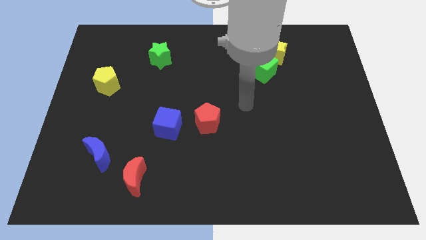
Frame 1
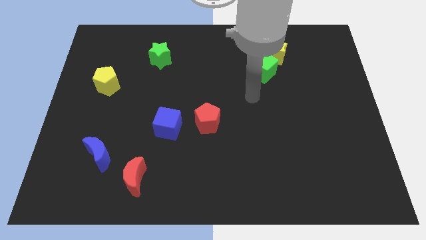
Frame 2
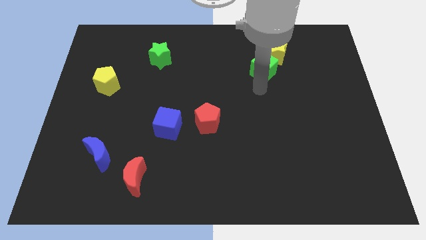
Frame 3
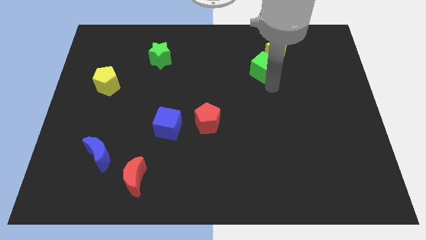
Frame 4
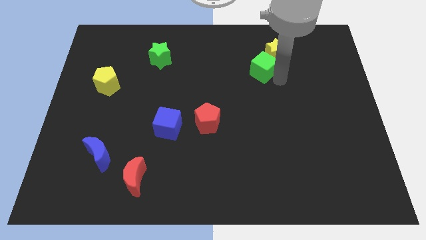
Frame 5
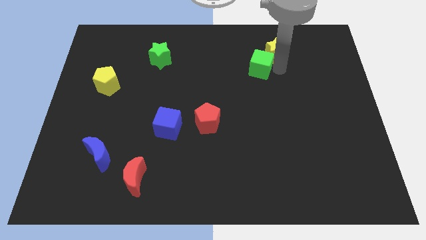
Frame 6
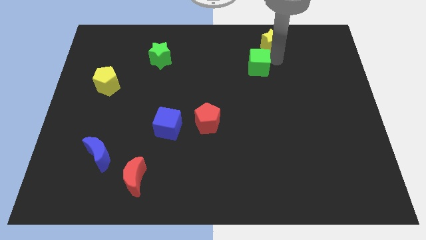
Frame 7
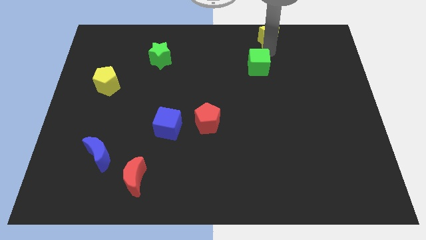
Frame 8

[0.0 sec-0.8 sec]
separate the green cube from the yellow star

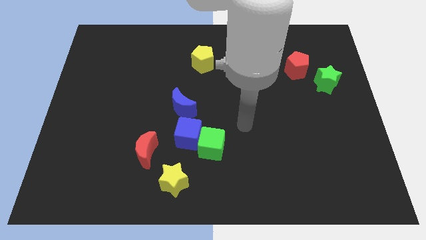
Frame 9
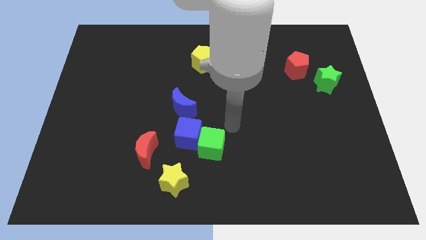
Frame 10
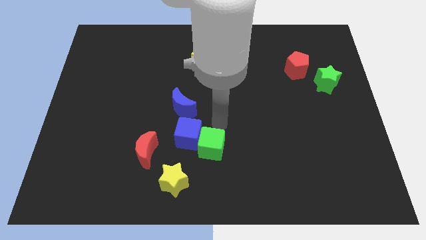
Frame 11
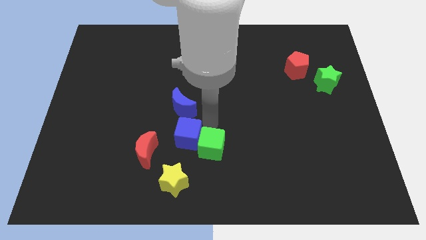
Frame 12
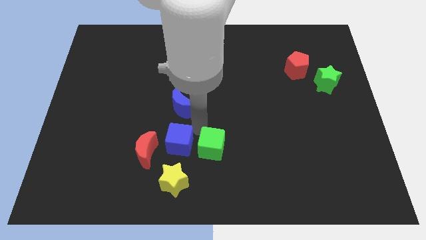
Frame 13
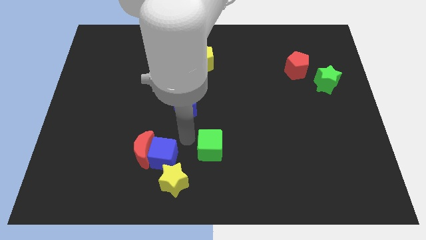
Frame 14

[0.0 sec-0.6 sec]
pull the green cube apart from the blue cube

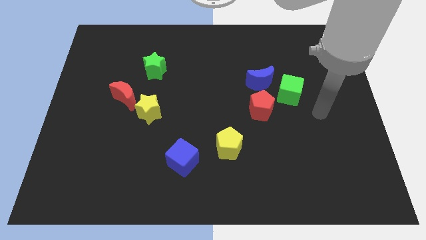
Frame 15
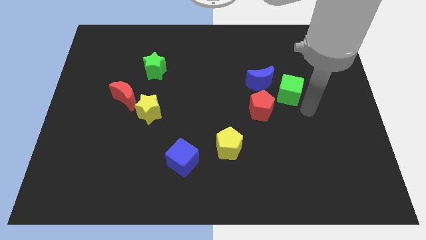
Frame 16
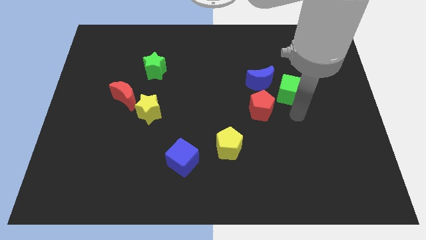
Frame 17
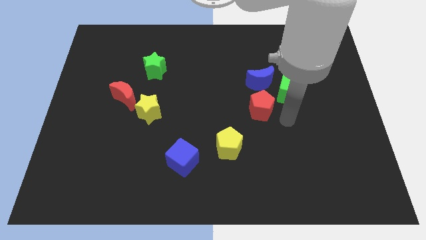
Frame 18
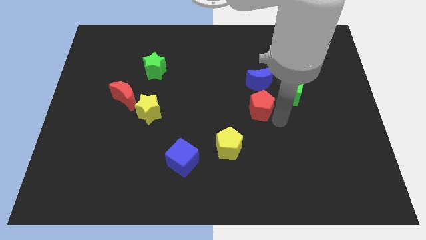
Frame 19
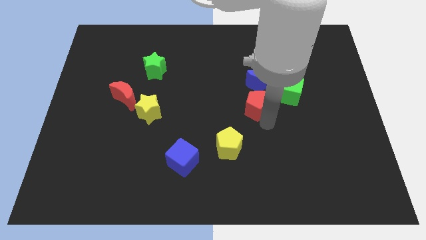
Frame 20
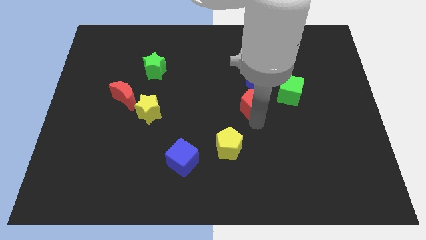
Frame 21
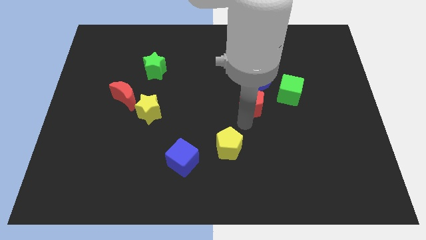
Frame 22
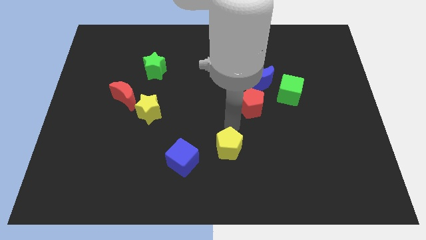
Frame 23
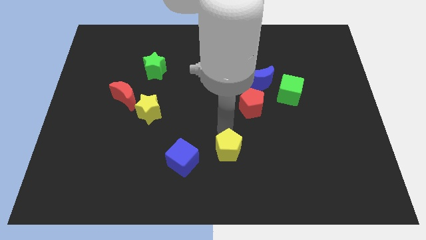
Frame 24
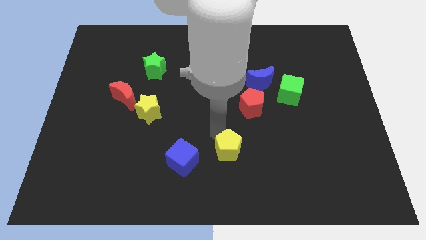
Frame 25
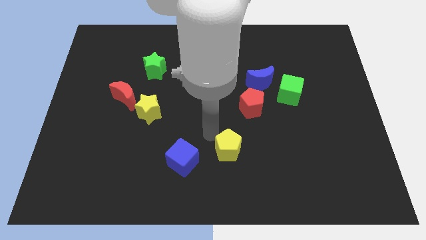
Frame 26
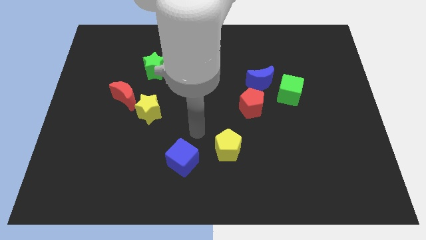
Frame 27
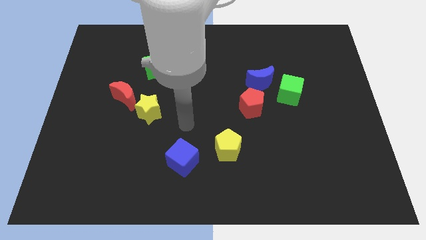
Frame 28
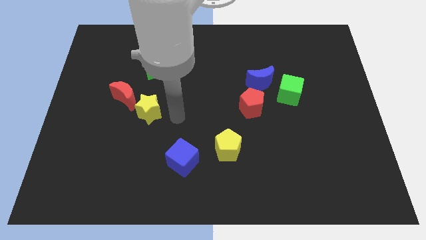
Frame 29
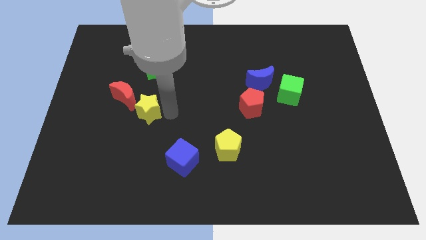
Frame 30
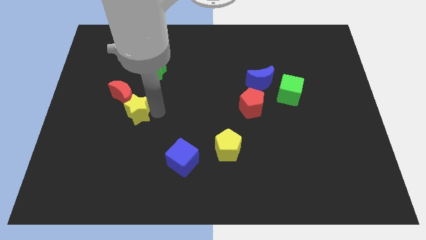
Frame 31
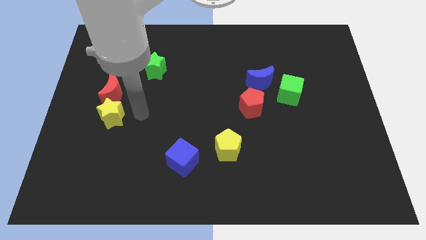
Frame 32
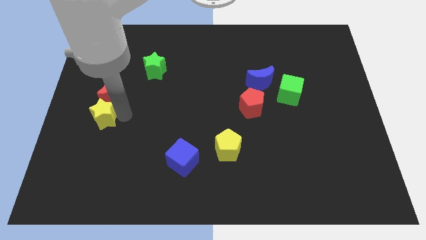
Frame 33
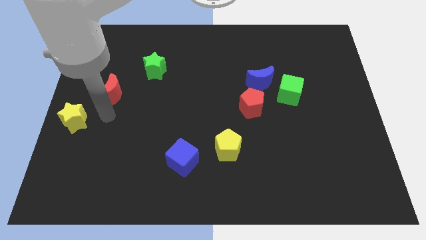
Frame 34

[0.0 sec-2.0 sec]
move the red moon away from the yellow star

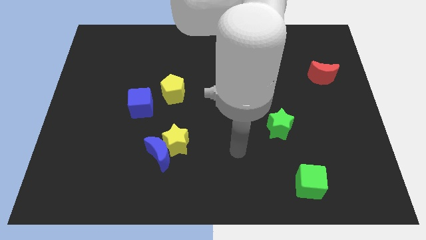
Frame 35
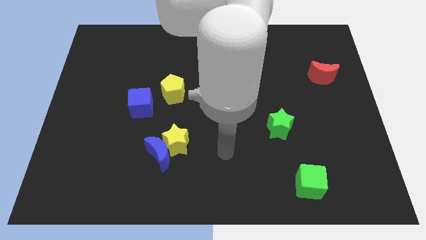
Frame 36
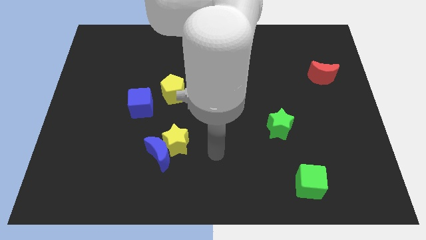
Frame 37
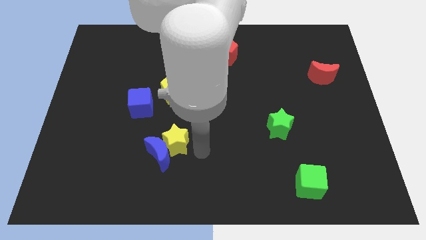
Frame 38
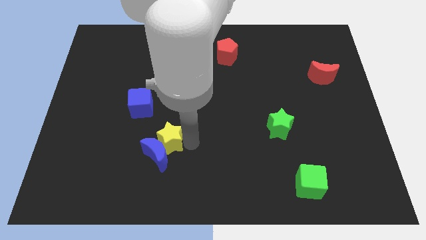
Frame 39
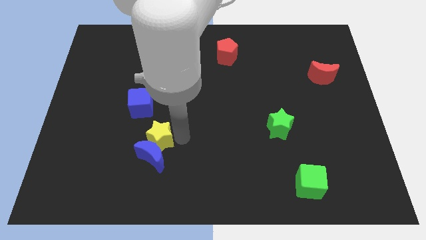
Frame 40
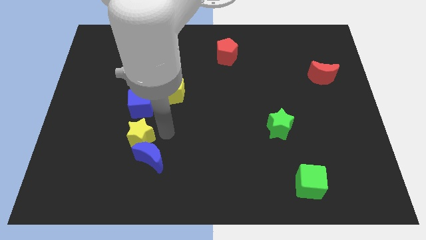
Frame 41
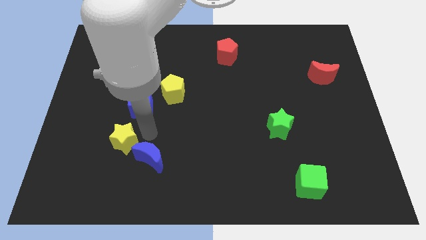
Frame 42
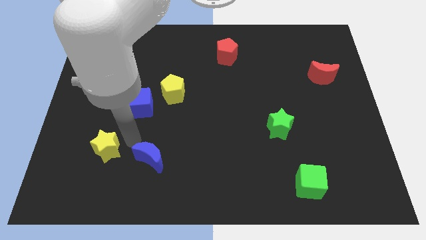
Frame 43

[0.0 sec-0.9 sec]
move the blue moon away from the yellow star

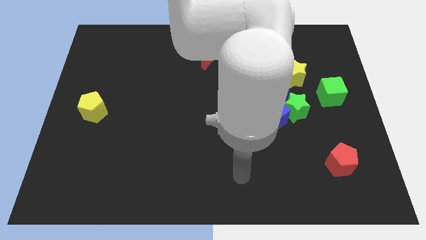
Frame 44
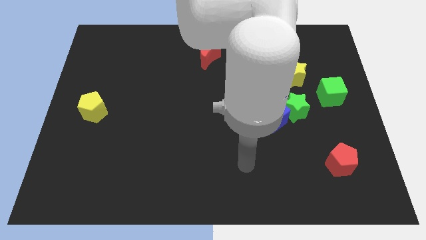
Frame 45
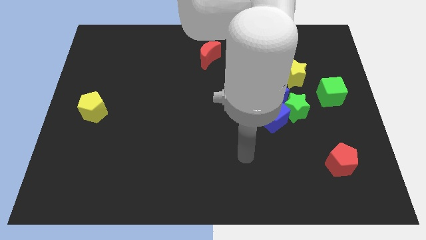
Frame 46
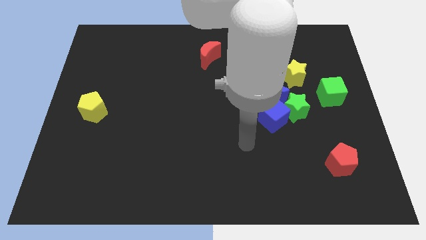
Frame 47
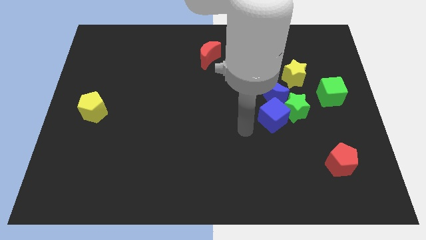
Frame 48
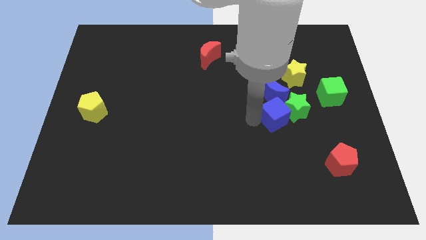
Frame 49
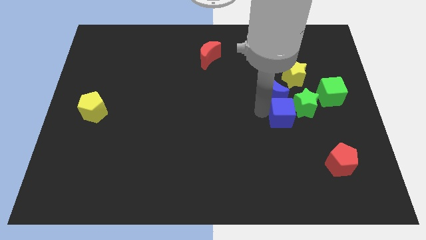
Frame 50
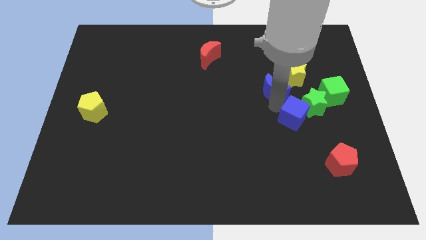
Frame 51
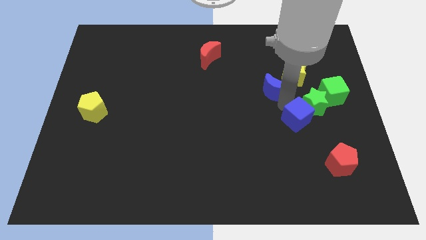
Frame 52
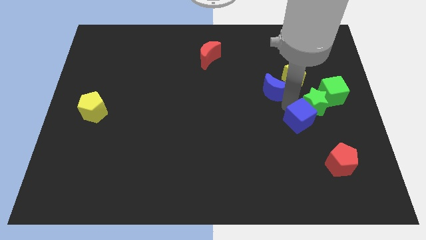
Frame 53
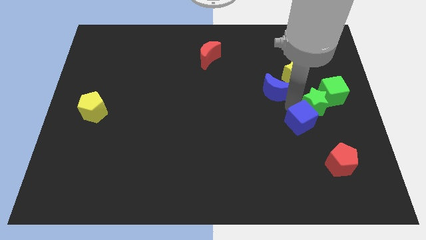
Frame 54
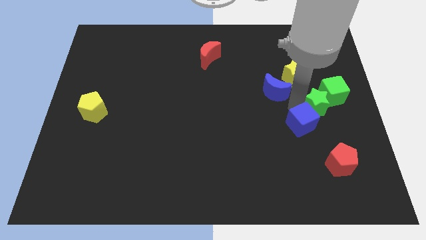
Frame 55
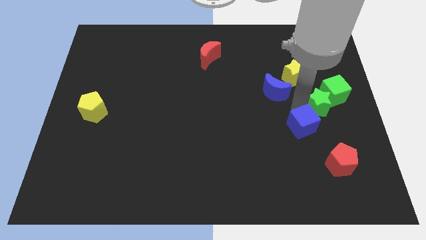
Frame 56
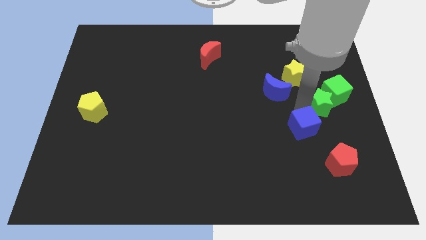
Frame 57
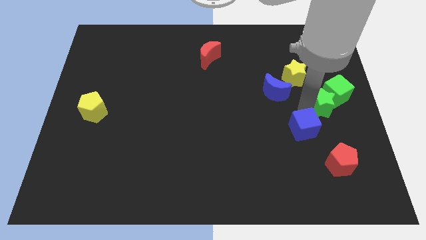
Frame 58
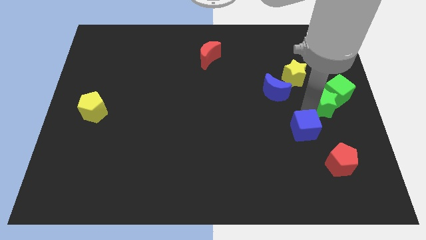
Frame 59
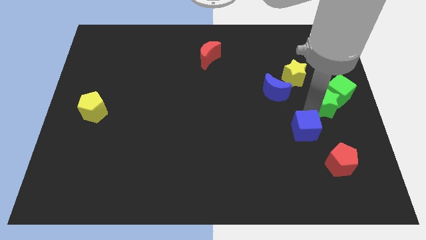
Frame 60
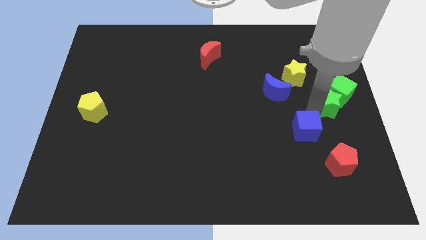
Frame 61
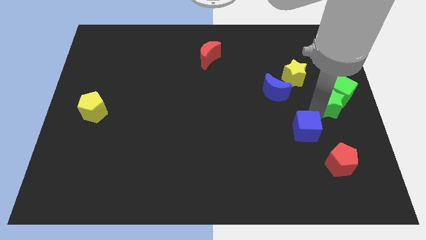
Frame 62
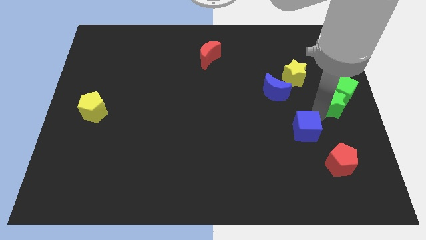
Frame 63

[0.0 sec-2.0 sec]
pull the green star apart from the blue cube and blue moon

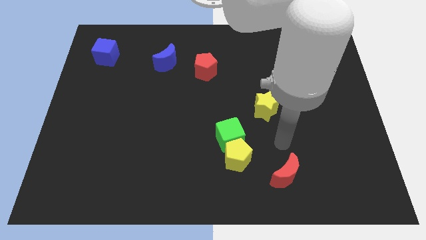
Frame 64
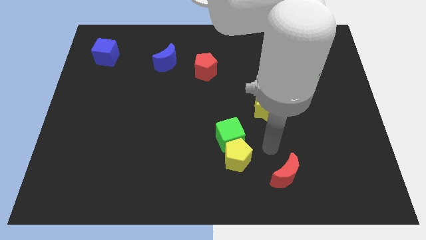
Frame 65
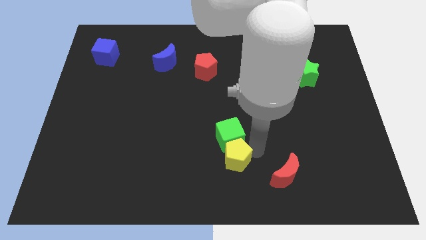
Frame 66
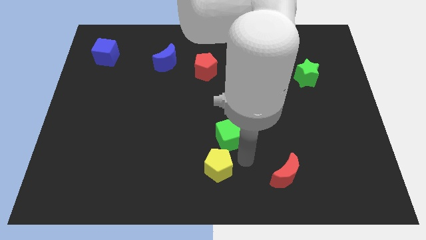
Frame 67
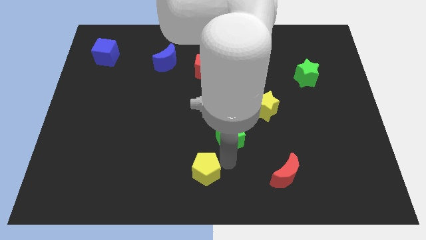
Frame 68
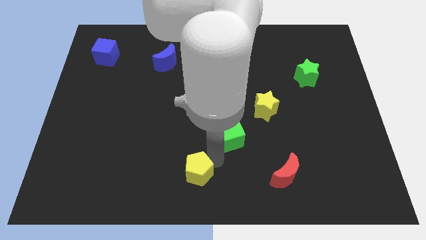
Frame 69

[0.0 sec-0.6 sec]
separate the green cube from the yellow pentagon

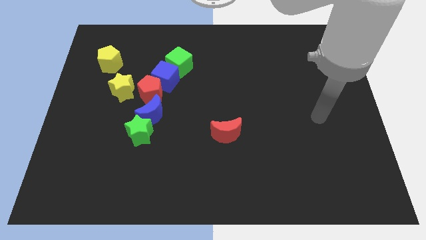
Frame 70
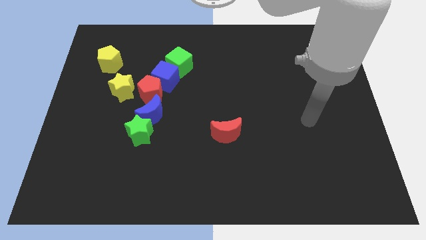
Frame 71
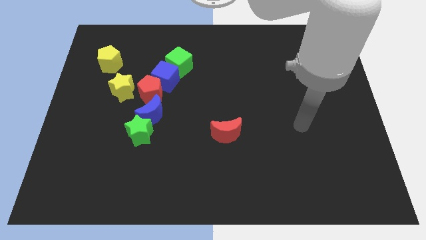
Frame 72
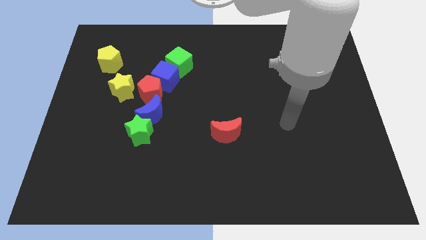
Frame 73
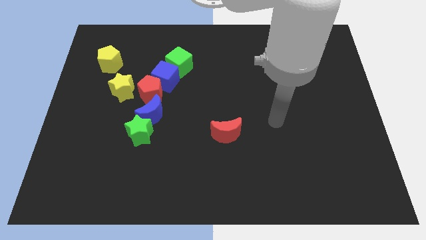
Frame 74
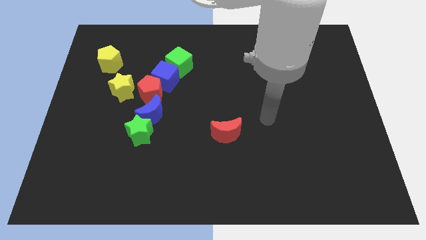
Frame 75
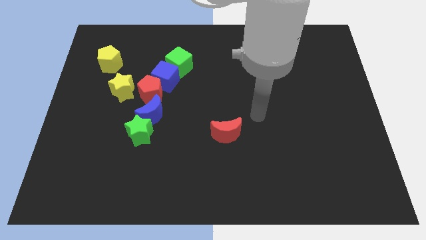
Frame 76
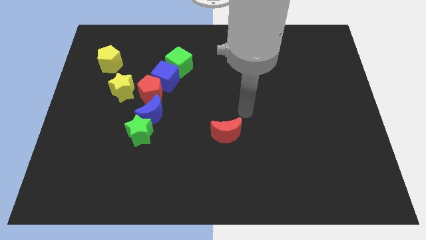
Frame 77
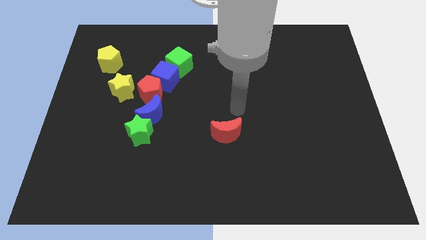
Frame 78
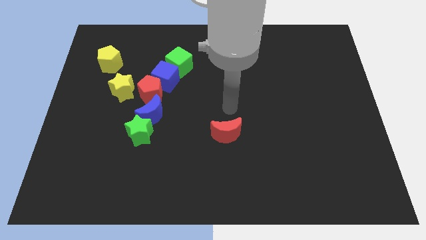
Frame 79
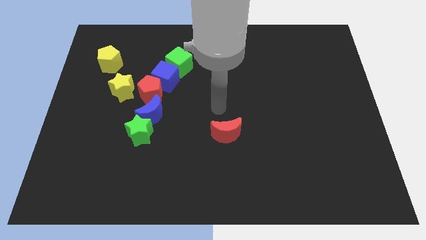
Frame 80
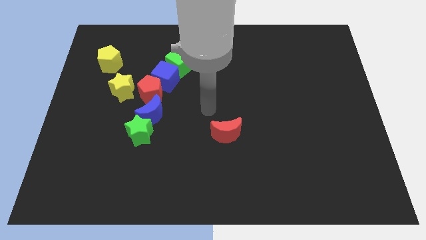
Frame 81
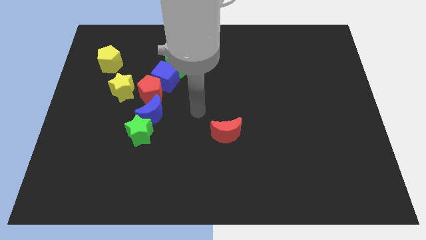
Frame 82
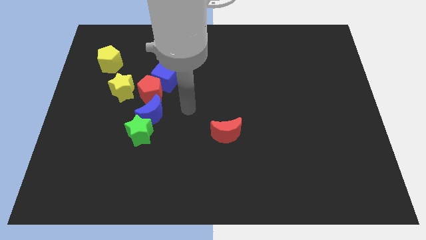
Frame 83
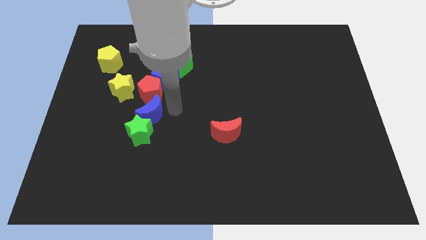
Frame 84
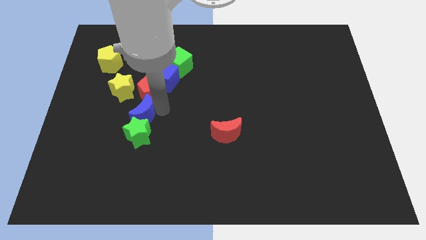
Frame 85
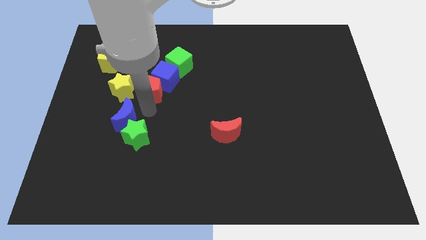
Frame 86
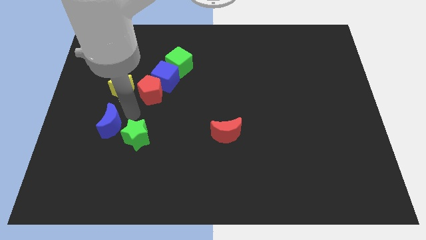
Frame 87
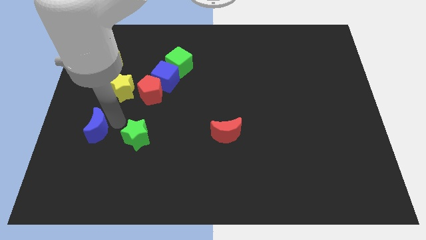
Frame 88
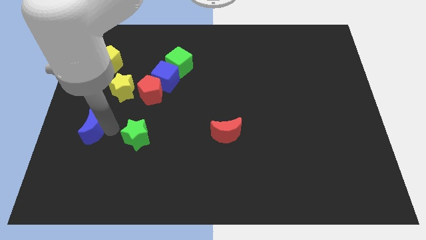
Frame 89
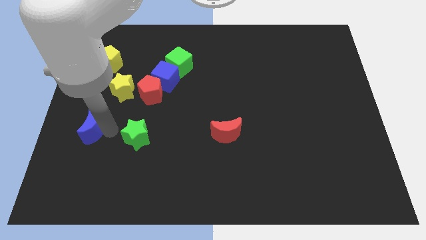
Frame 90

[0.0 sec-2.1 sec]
move the green star away from the blue moon

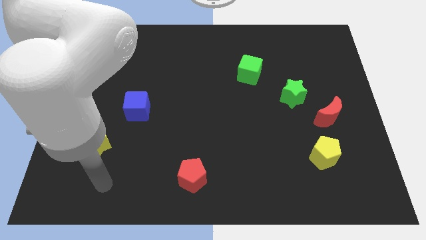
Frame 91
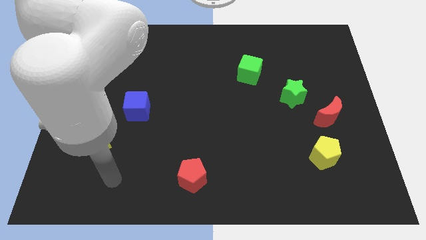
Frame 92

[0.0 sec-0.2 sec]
separate the red moon from the green star

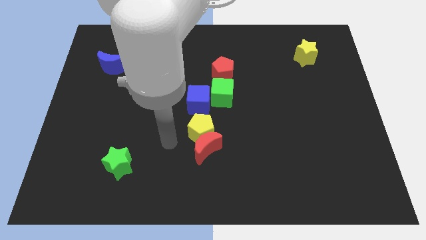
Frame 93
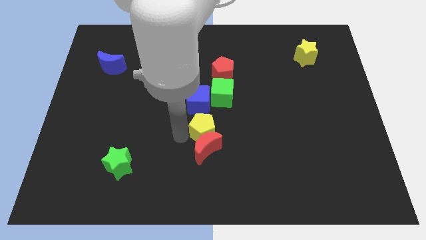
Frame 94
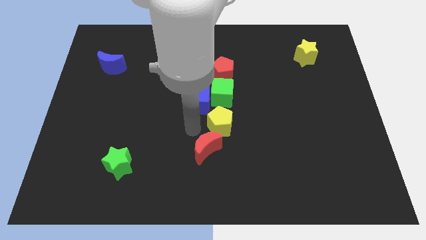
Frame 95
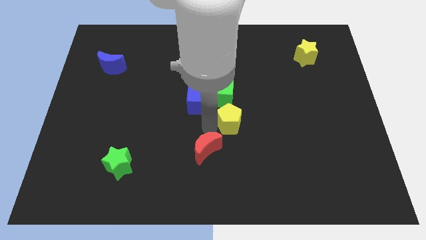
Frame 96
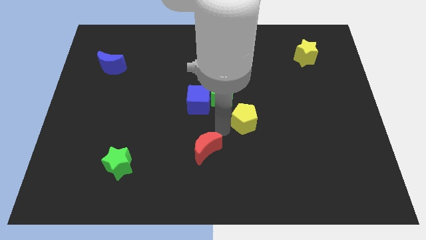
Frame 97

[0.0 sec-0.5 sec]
pull the red moon apart from the yellow pentagon
